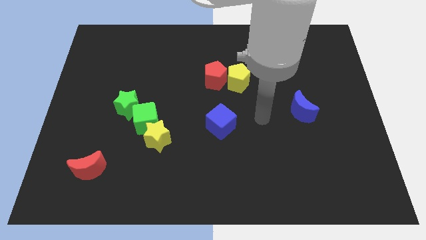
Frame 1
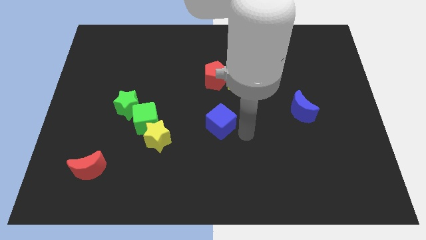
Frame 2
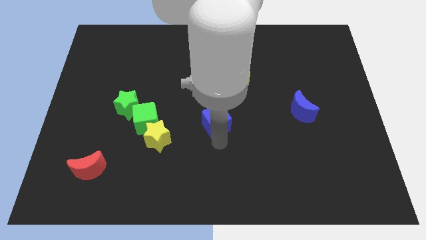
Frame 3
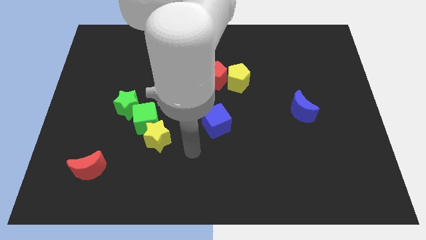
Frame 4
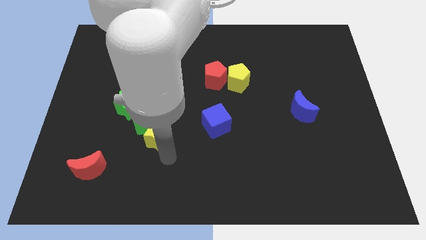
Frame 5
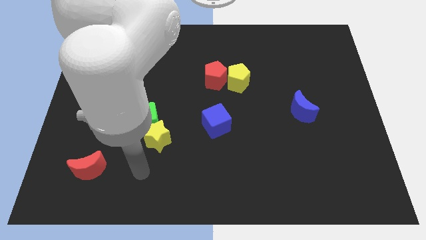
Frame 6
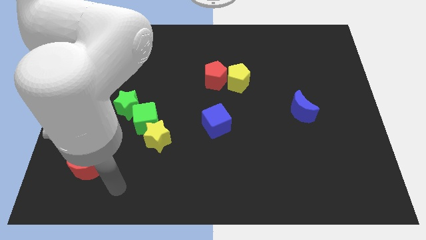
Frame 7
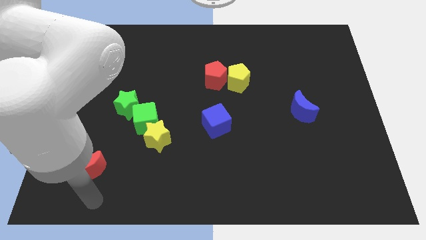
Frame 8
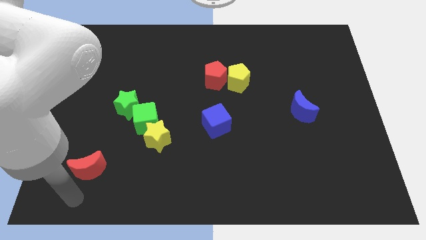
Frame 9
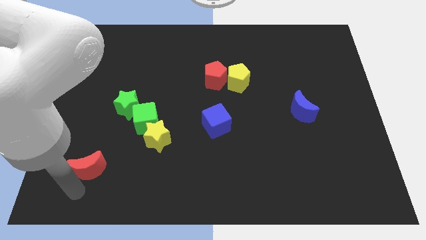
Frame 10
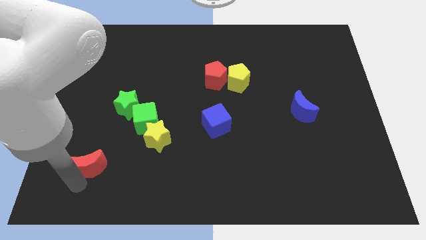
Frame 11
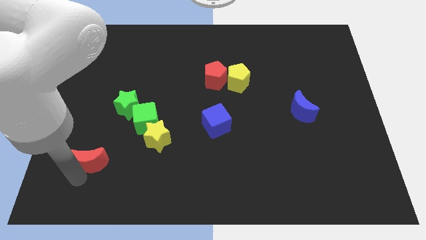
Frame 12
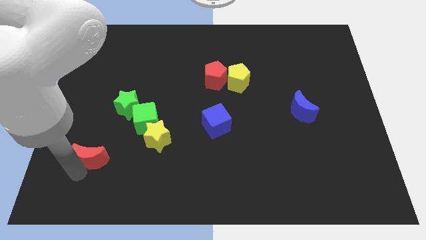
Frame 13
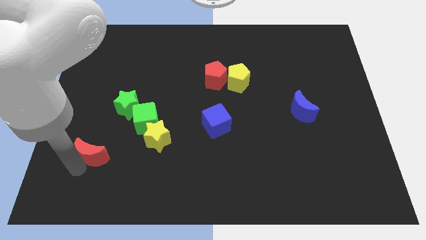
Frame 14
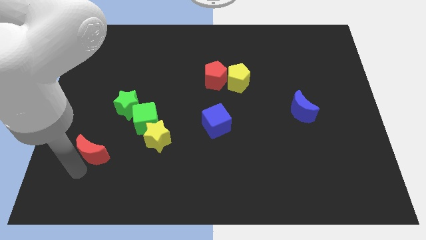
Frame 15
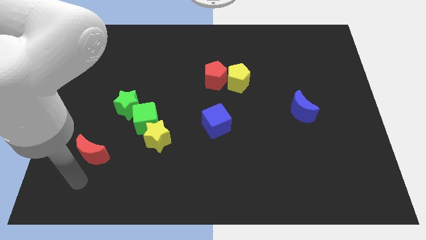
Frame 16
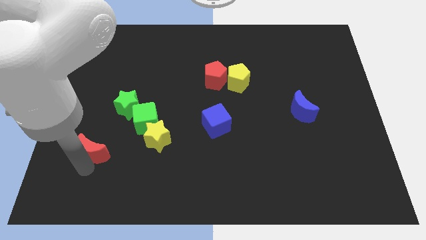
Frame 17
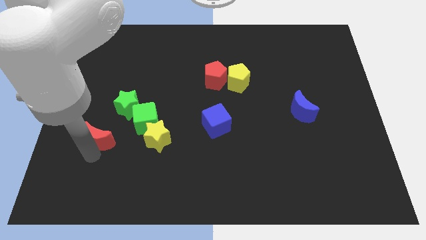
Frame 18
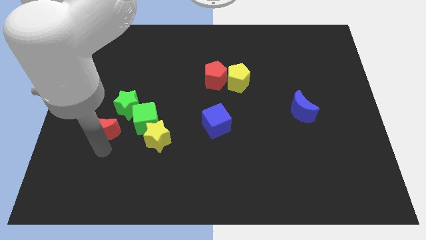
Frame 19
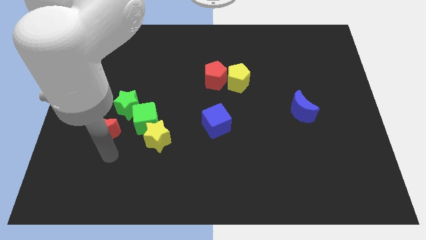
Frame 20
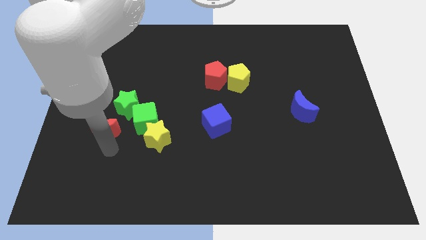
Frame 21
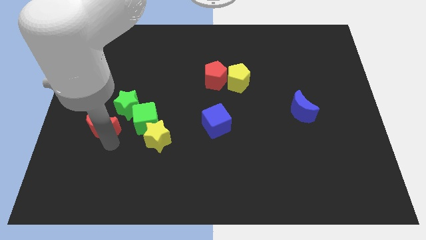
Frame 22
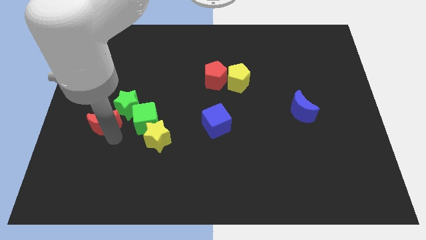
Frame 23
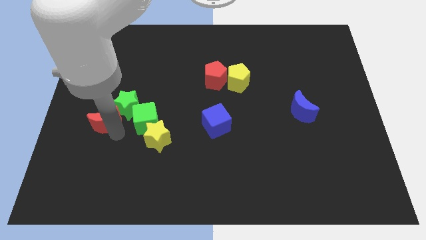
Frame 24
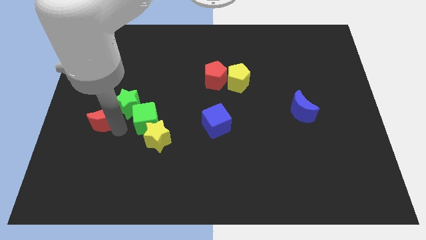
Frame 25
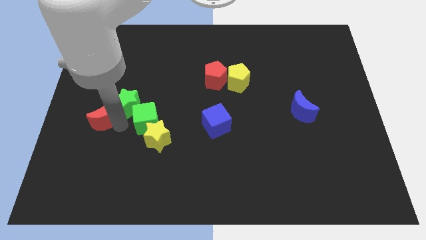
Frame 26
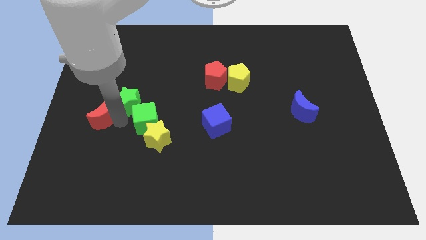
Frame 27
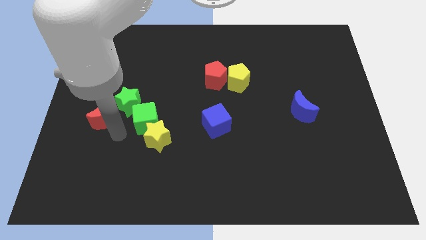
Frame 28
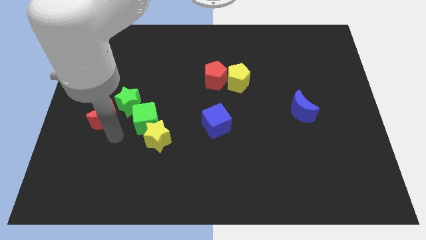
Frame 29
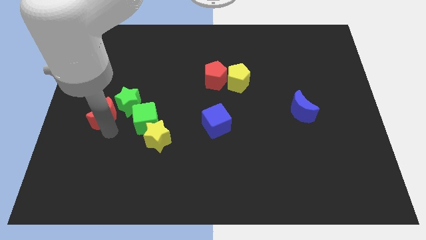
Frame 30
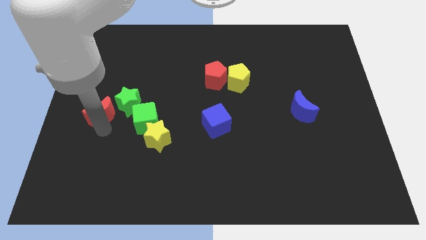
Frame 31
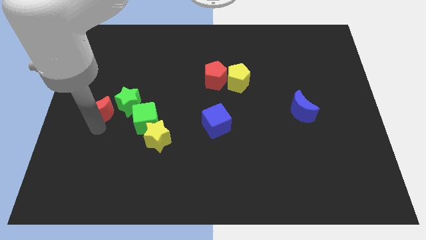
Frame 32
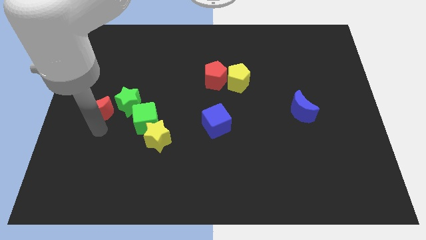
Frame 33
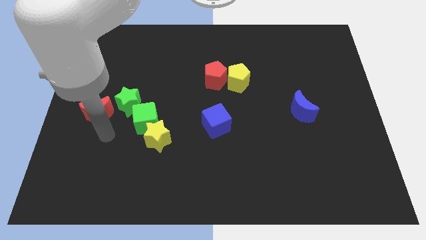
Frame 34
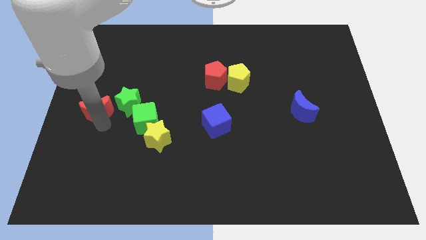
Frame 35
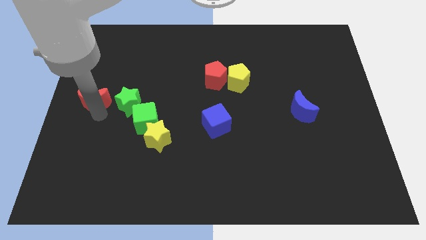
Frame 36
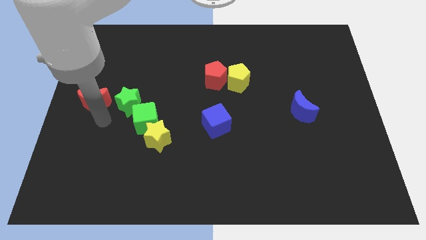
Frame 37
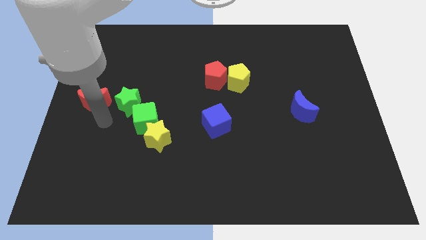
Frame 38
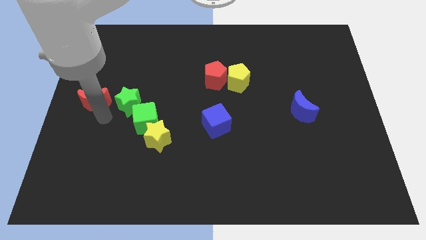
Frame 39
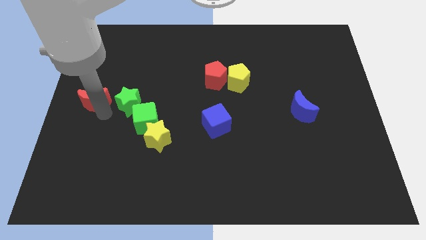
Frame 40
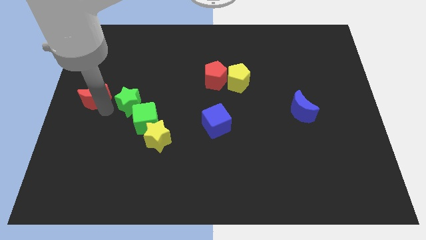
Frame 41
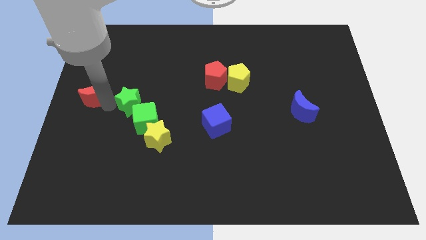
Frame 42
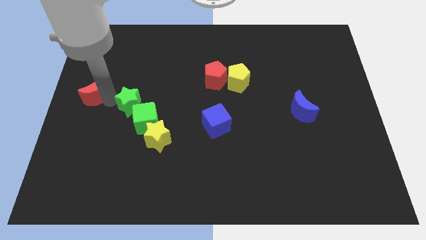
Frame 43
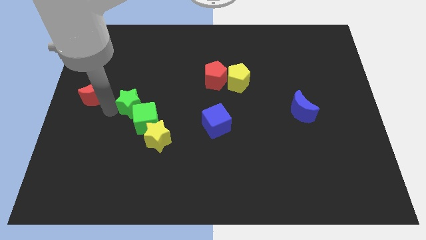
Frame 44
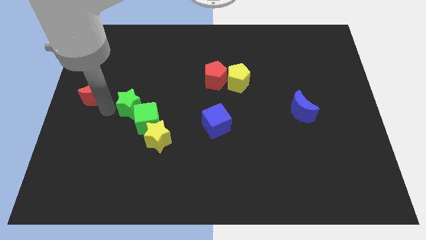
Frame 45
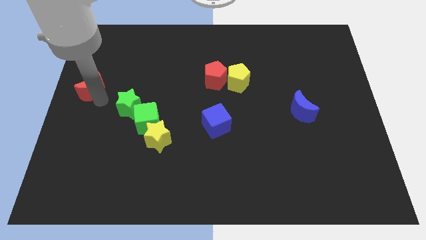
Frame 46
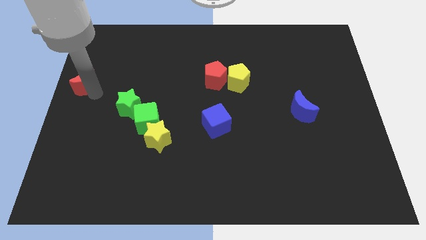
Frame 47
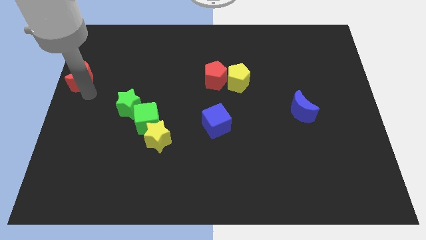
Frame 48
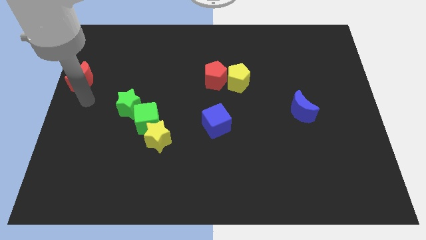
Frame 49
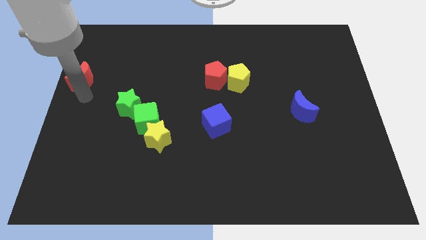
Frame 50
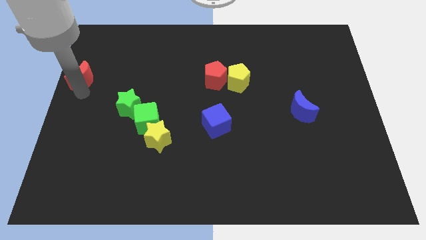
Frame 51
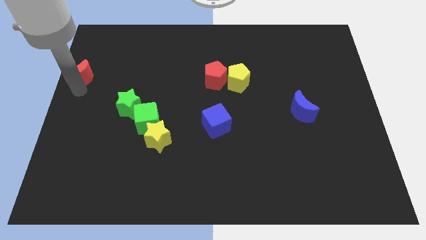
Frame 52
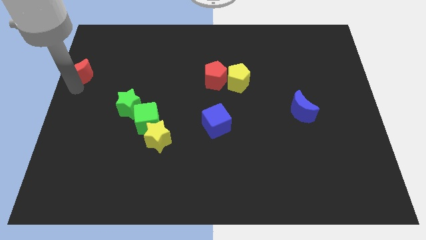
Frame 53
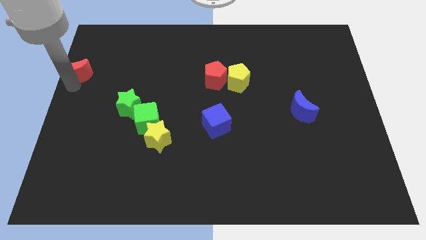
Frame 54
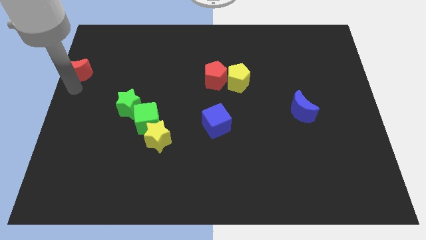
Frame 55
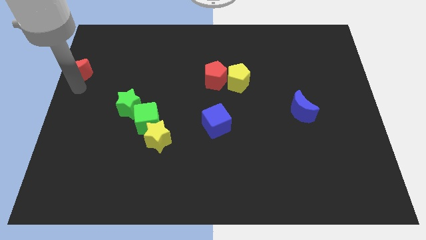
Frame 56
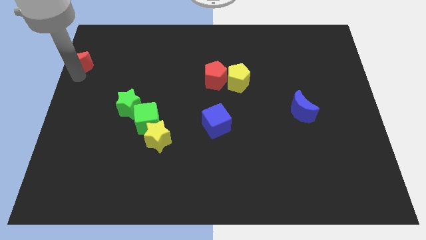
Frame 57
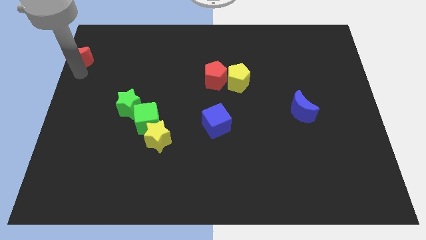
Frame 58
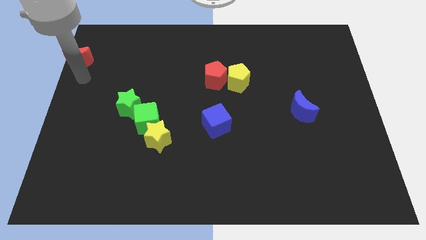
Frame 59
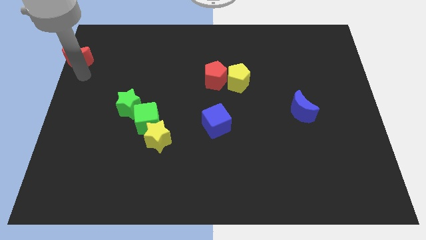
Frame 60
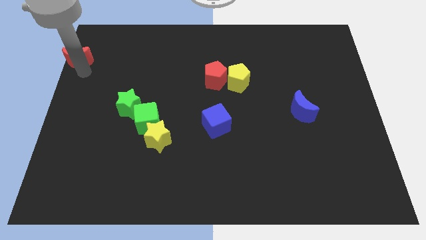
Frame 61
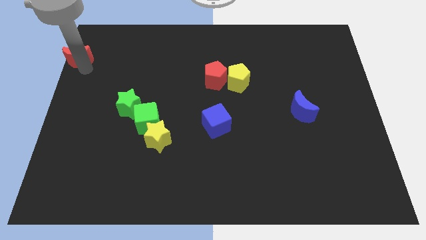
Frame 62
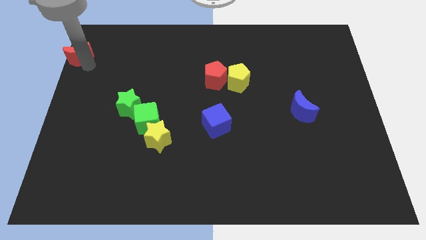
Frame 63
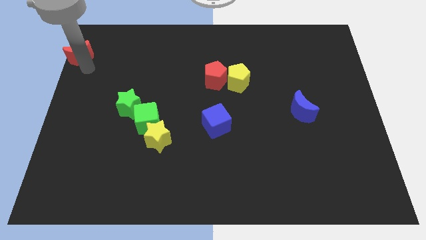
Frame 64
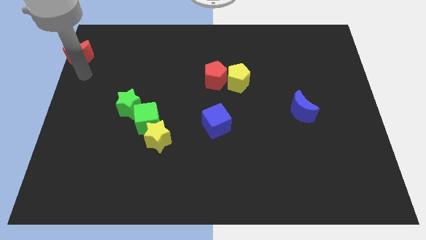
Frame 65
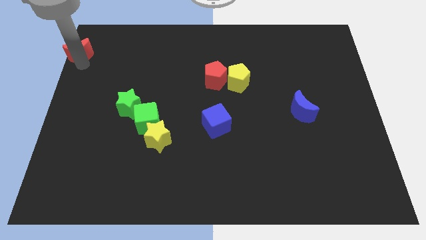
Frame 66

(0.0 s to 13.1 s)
put the red moon to the top left corner
